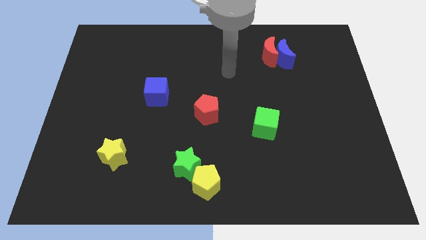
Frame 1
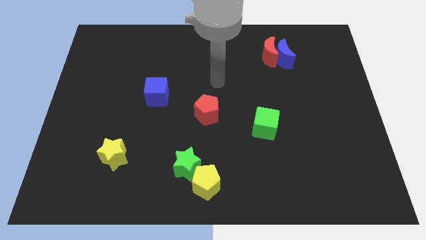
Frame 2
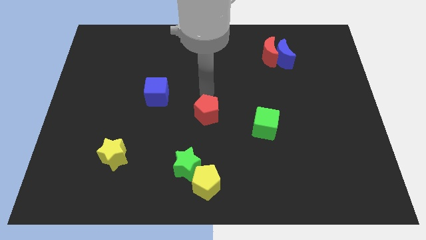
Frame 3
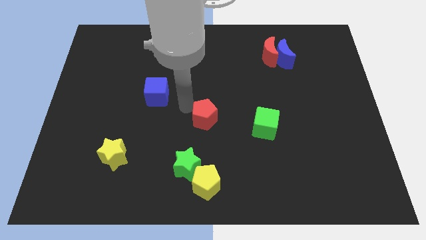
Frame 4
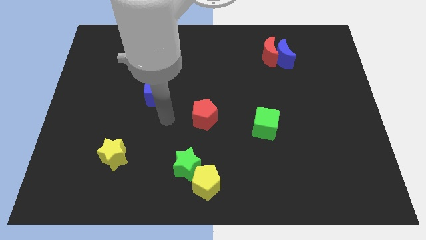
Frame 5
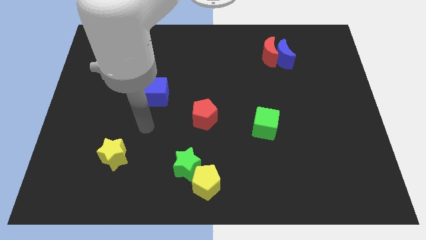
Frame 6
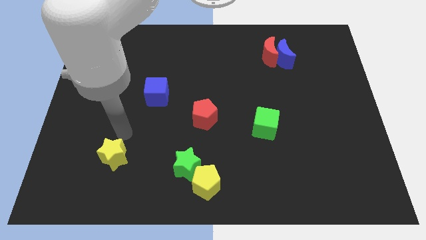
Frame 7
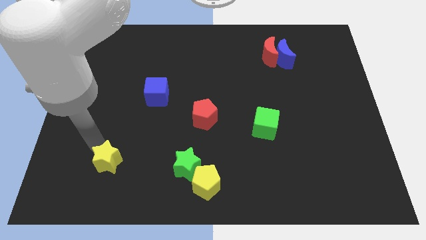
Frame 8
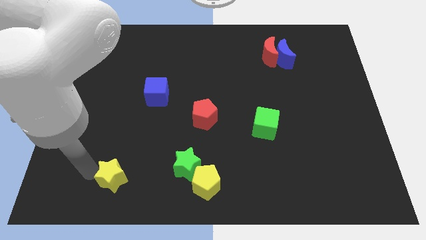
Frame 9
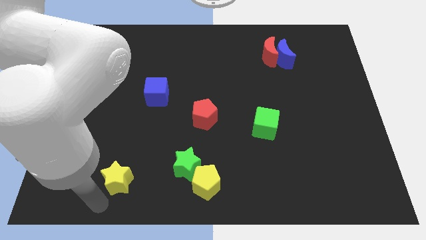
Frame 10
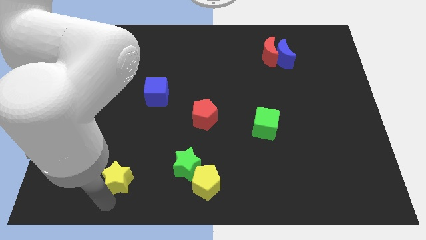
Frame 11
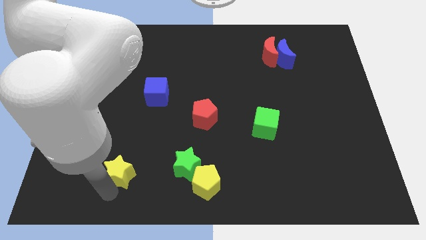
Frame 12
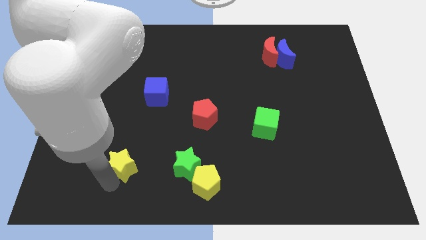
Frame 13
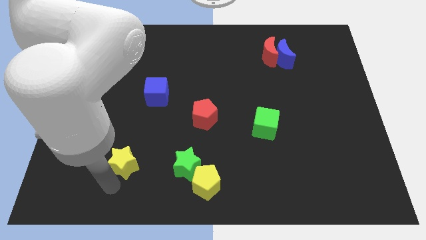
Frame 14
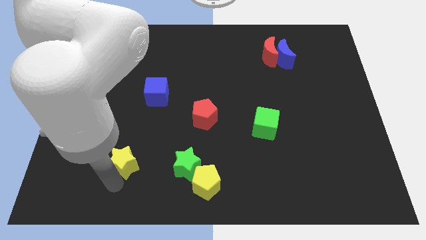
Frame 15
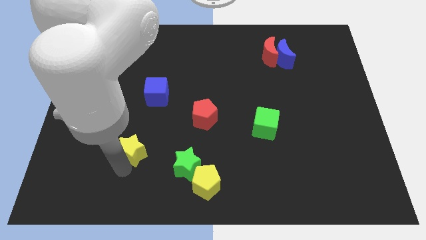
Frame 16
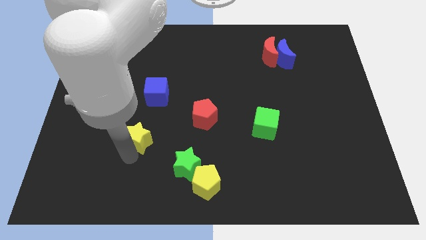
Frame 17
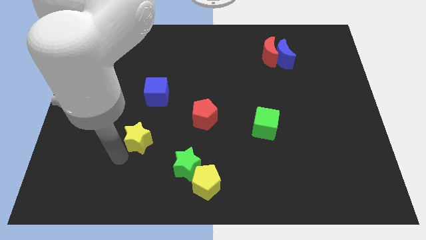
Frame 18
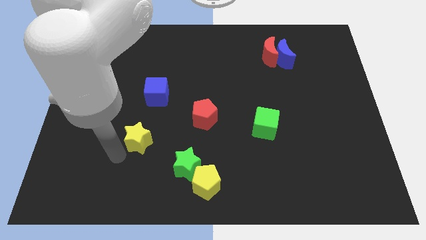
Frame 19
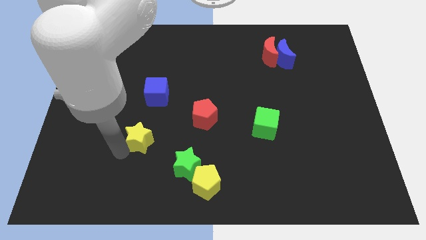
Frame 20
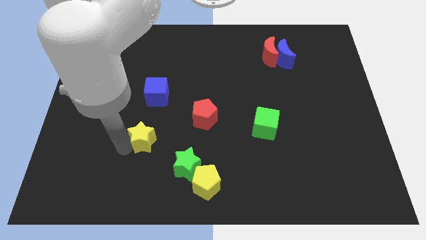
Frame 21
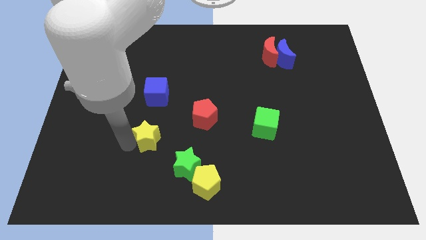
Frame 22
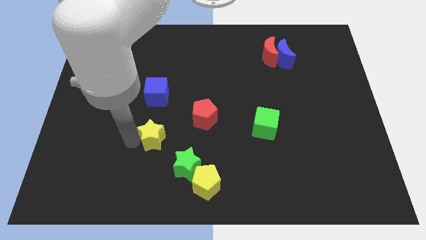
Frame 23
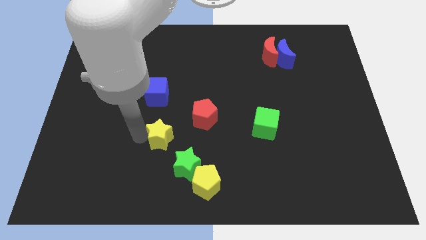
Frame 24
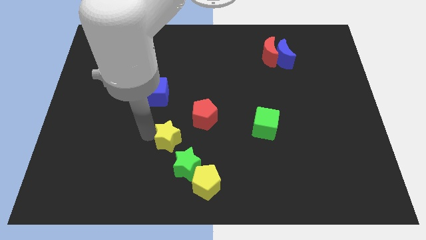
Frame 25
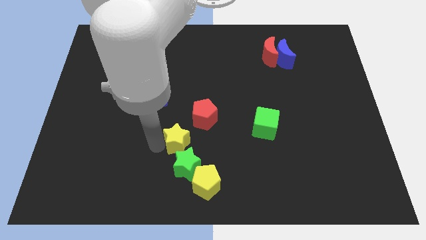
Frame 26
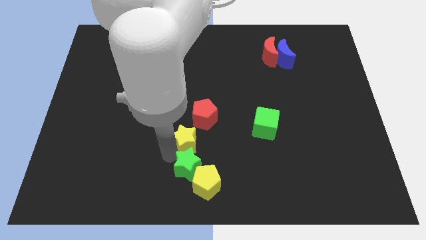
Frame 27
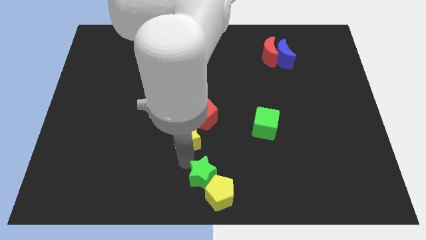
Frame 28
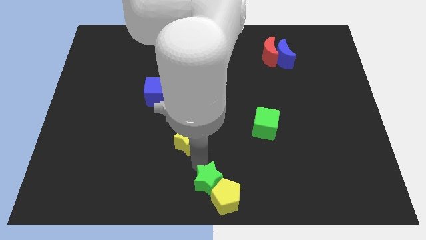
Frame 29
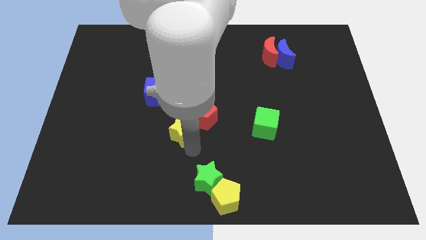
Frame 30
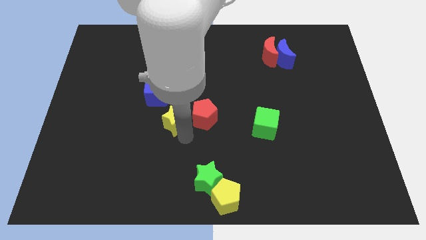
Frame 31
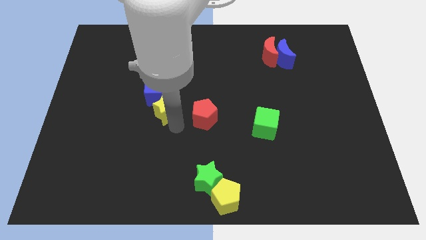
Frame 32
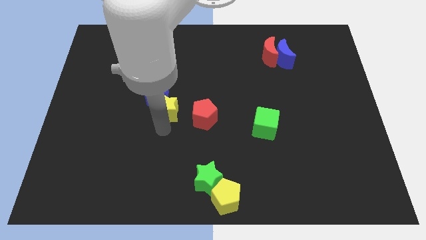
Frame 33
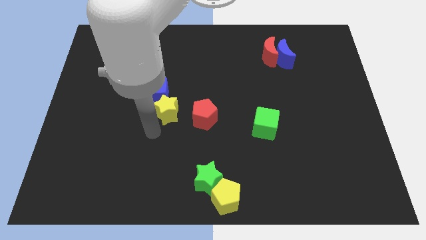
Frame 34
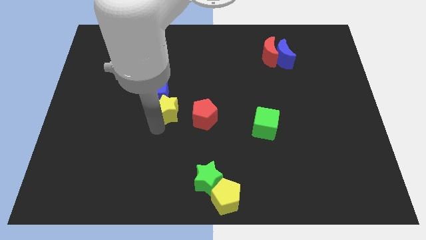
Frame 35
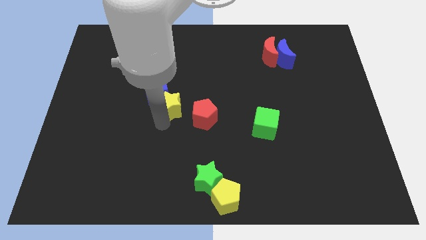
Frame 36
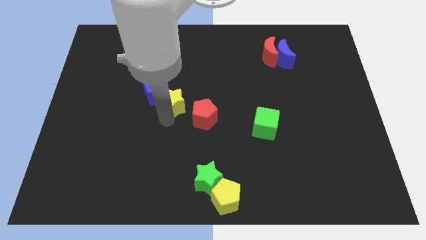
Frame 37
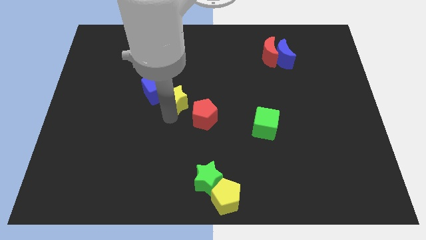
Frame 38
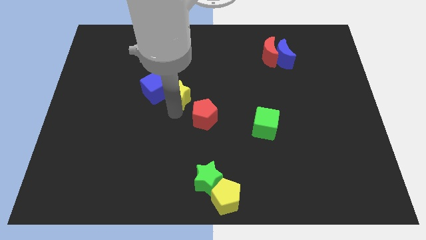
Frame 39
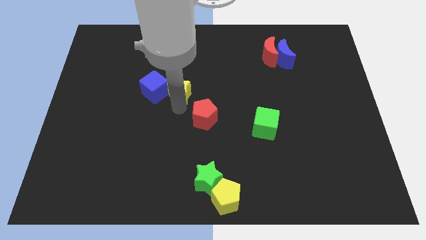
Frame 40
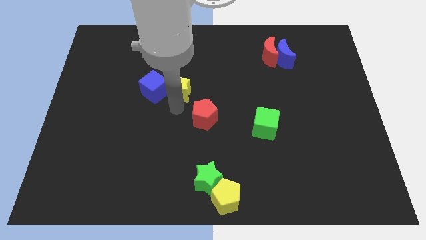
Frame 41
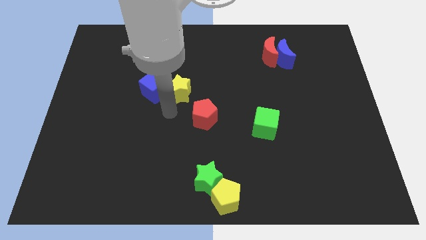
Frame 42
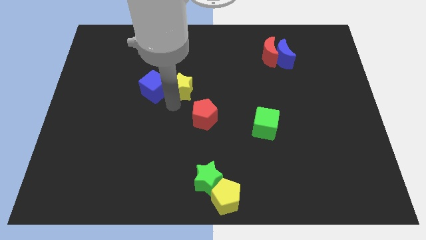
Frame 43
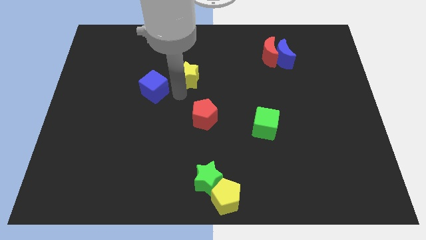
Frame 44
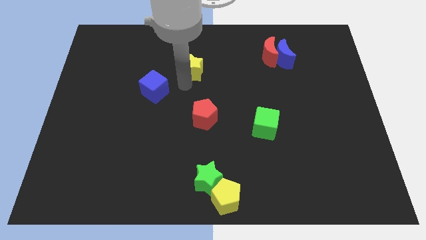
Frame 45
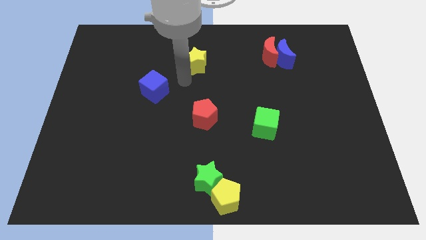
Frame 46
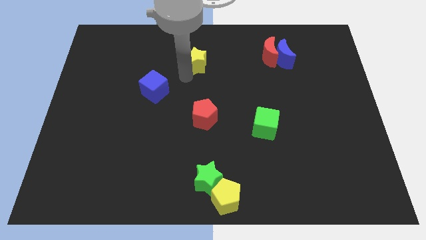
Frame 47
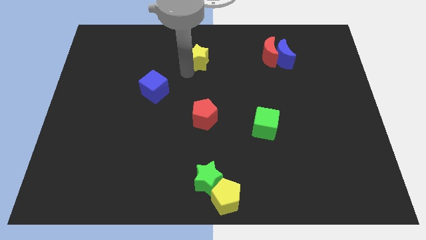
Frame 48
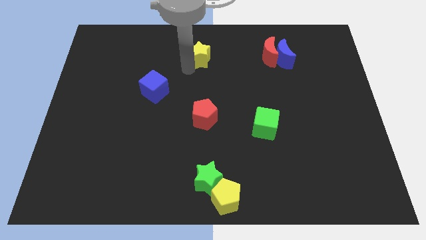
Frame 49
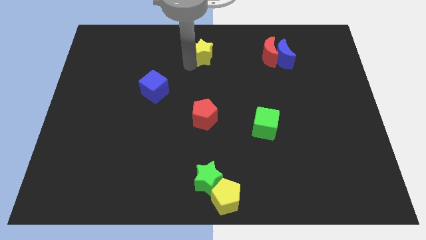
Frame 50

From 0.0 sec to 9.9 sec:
move the yellow star to the top

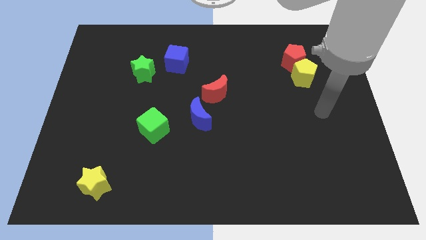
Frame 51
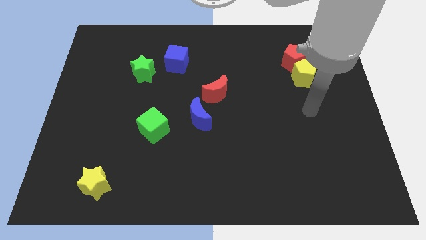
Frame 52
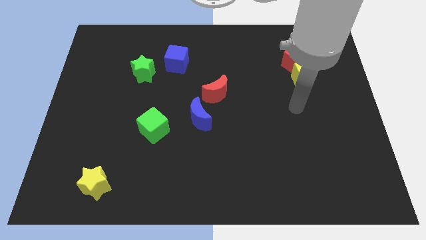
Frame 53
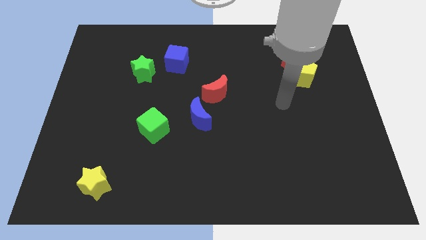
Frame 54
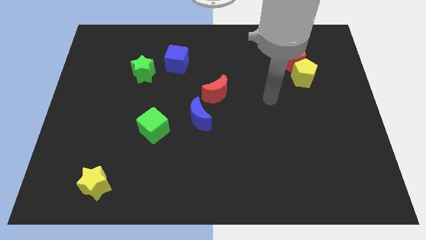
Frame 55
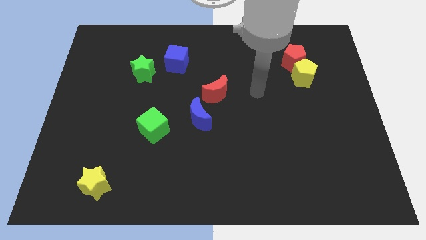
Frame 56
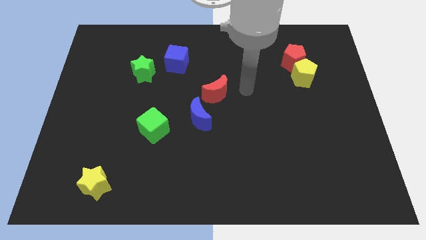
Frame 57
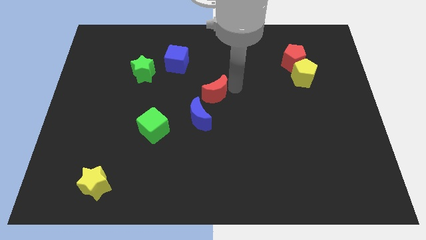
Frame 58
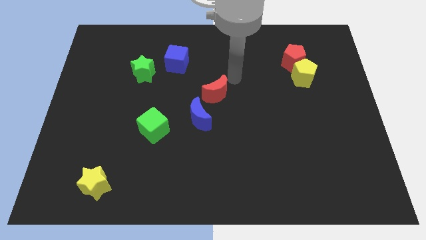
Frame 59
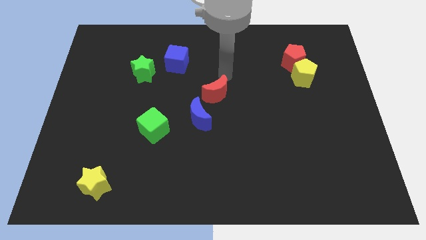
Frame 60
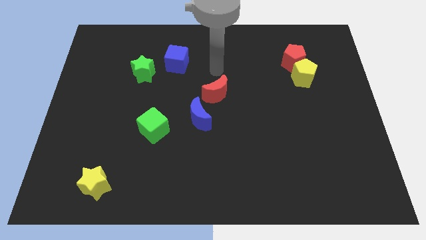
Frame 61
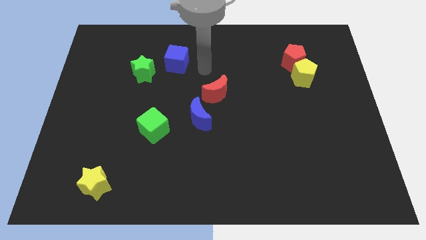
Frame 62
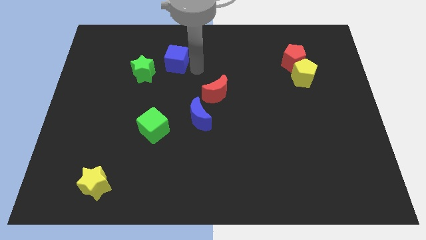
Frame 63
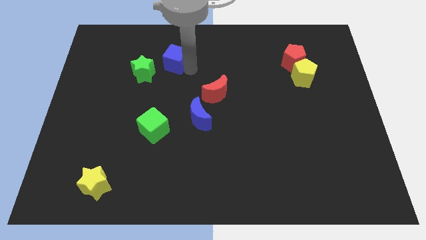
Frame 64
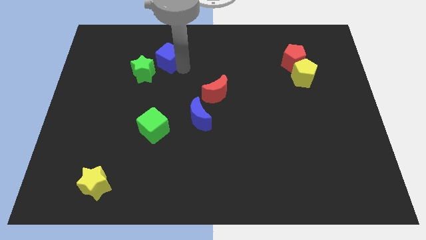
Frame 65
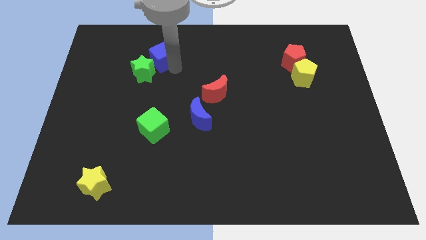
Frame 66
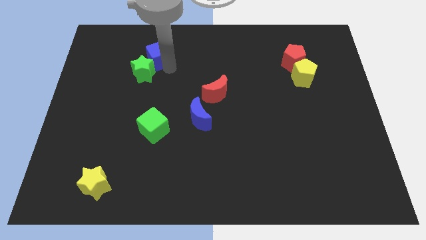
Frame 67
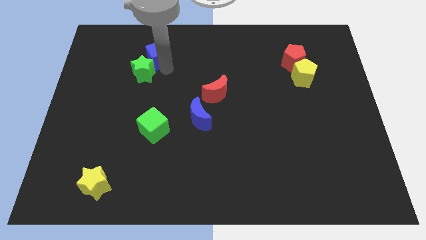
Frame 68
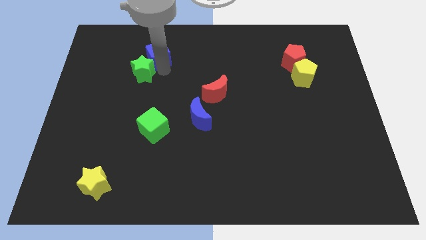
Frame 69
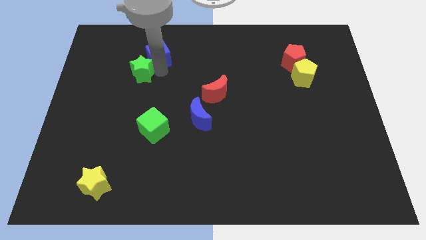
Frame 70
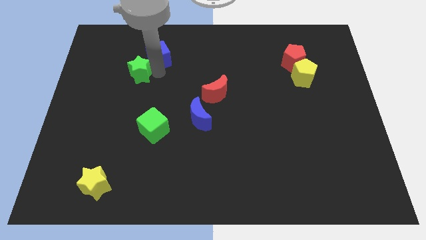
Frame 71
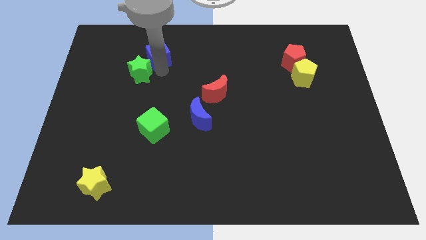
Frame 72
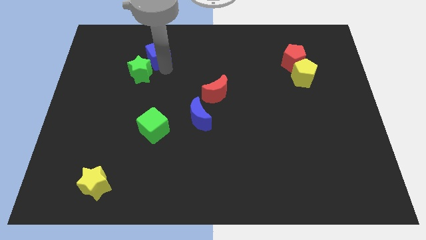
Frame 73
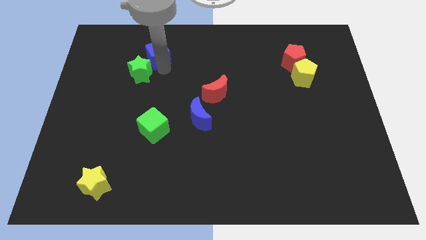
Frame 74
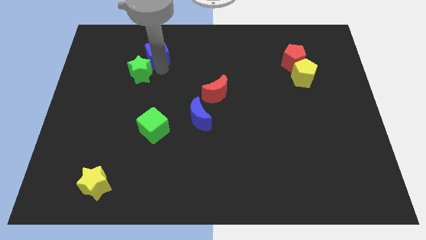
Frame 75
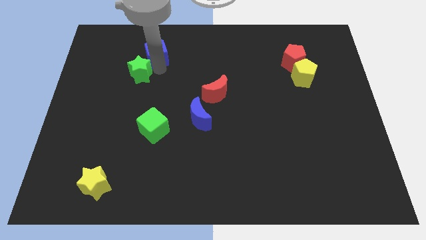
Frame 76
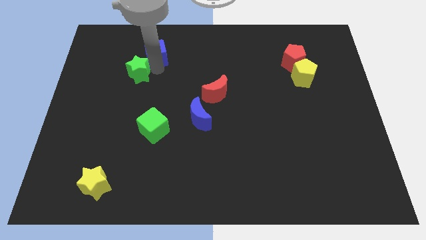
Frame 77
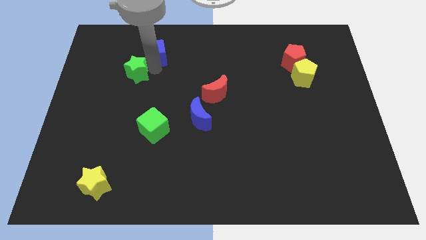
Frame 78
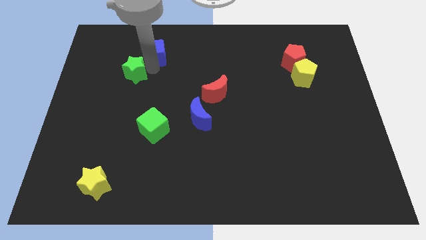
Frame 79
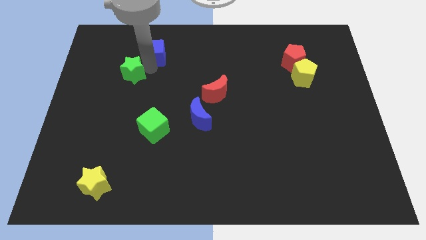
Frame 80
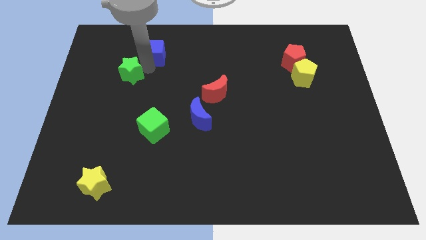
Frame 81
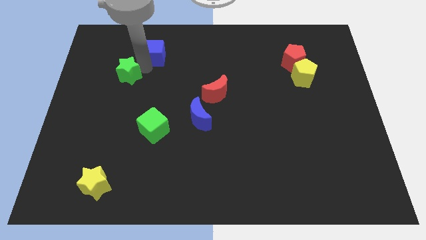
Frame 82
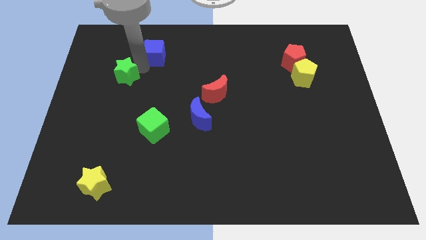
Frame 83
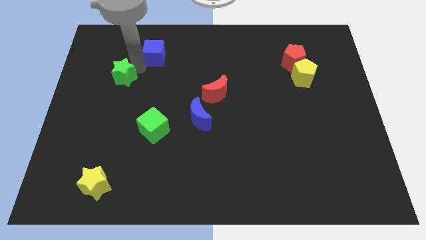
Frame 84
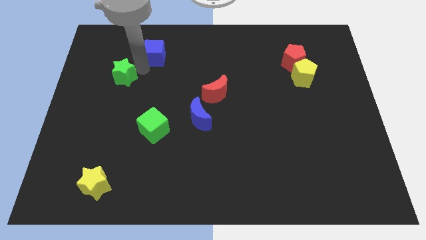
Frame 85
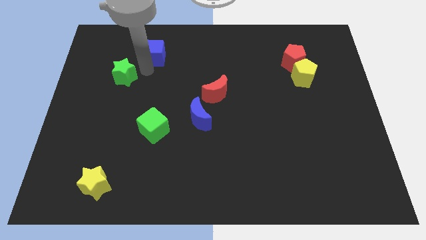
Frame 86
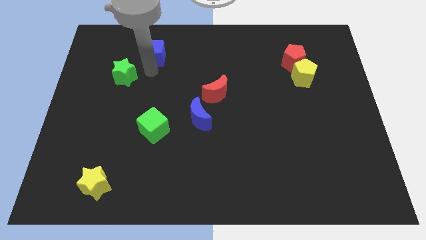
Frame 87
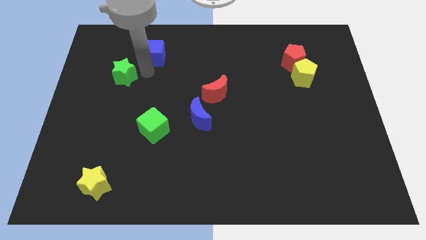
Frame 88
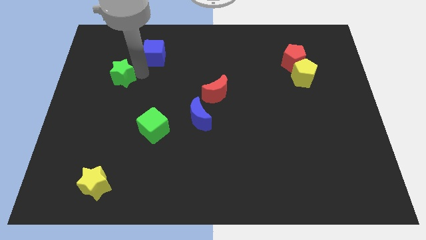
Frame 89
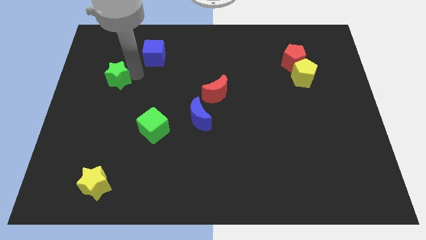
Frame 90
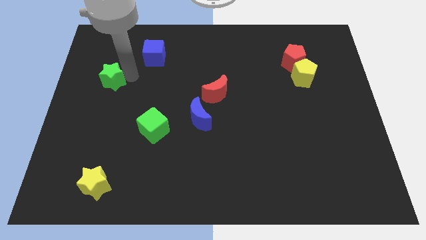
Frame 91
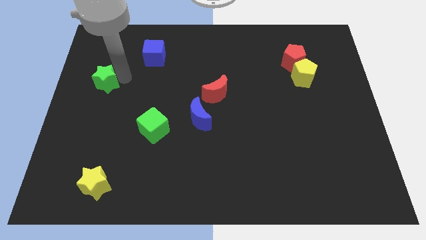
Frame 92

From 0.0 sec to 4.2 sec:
push the green star to the left side of the board
